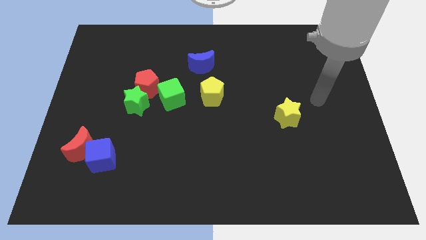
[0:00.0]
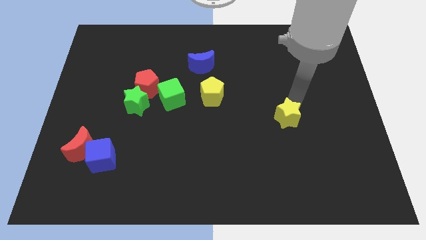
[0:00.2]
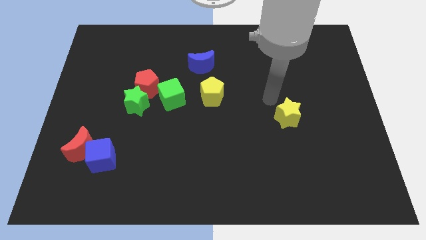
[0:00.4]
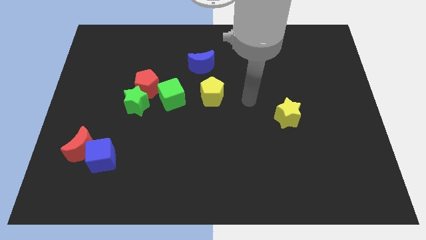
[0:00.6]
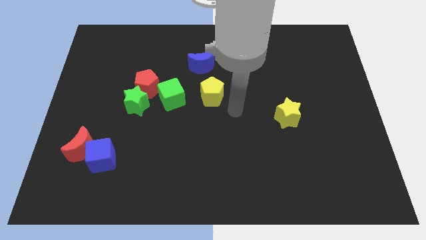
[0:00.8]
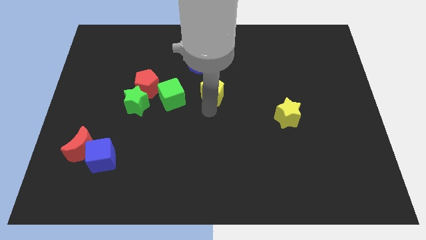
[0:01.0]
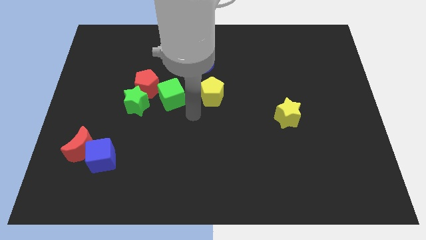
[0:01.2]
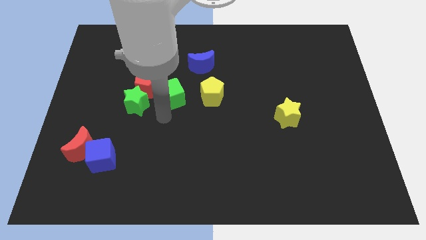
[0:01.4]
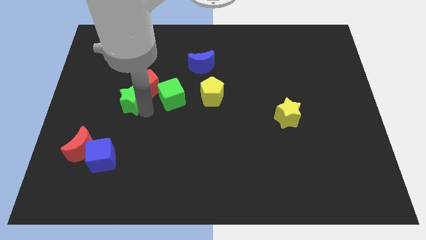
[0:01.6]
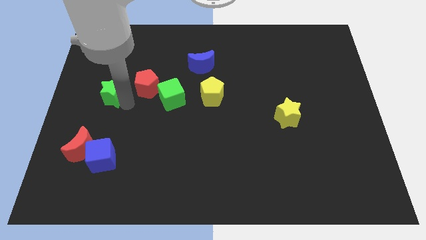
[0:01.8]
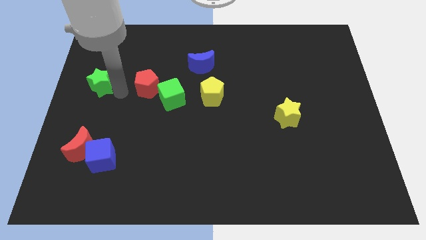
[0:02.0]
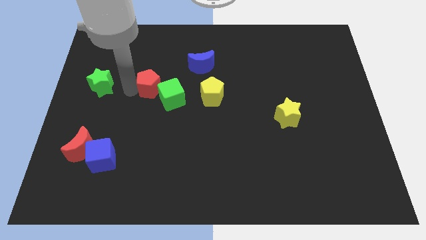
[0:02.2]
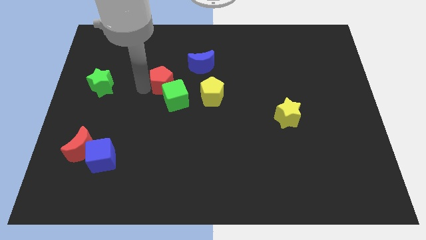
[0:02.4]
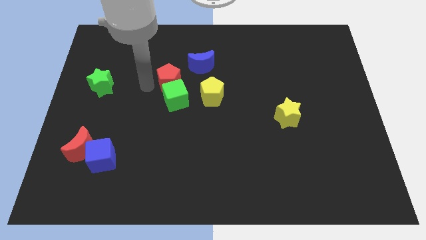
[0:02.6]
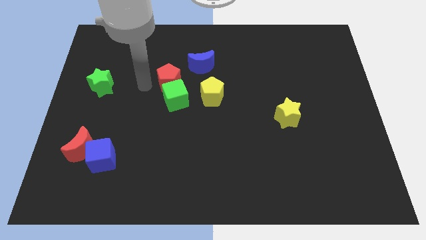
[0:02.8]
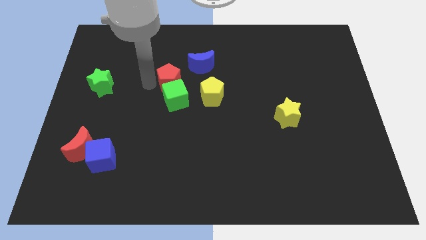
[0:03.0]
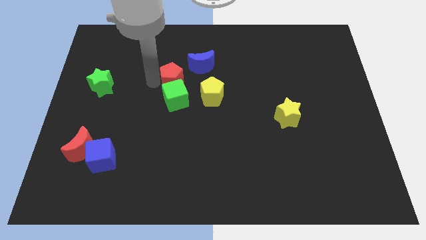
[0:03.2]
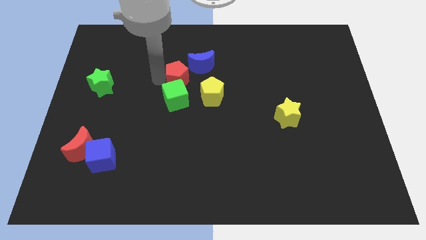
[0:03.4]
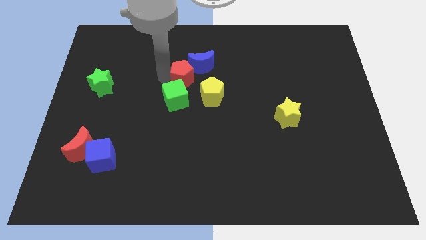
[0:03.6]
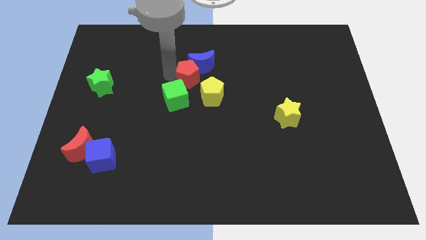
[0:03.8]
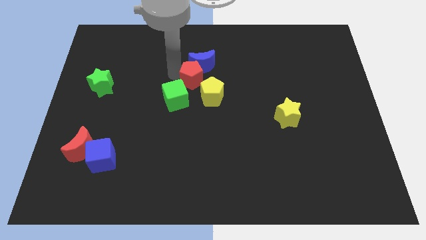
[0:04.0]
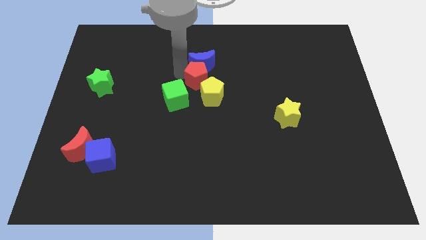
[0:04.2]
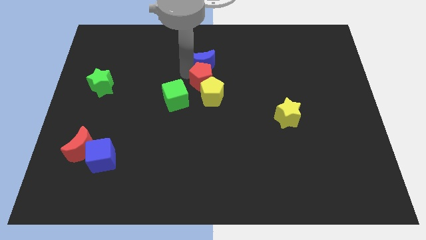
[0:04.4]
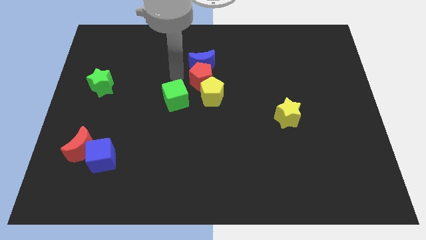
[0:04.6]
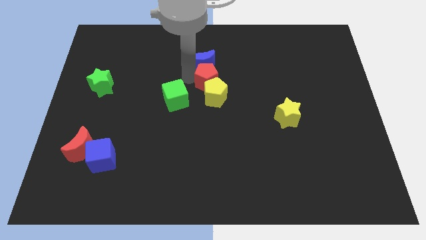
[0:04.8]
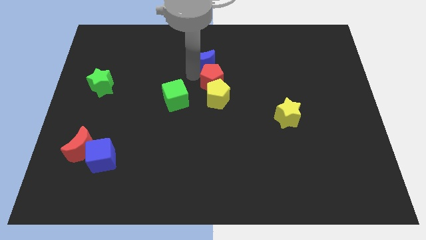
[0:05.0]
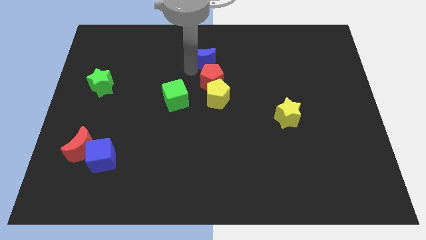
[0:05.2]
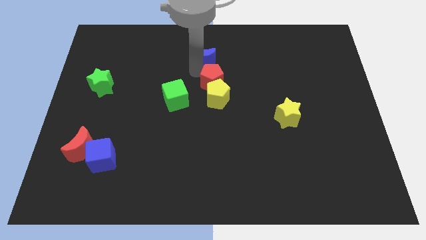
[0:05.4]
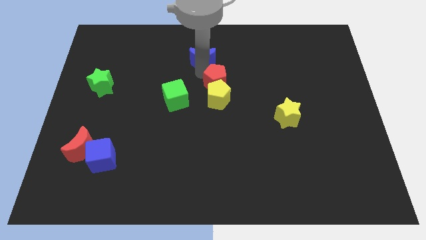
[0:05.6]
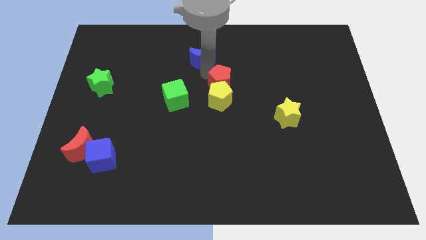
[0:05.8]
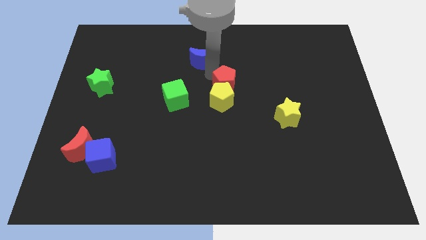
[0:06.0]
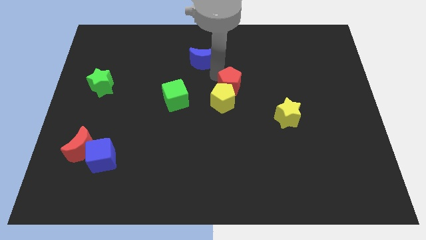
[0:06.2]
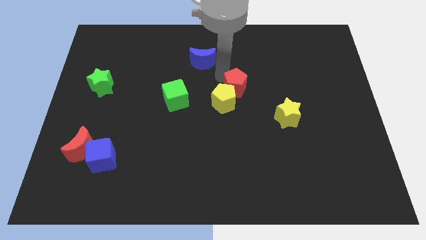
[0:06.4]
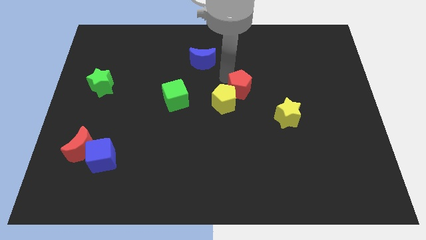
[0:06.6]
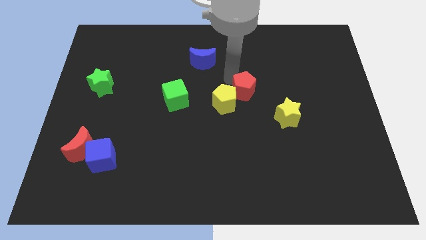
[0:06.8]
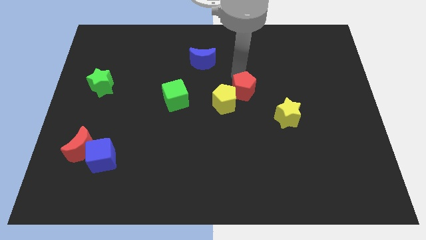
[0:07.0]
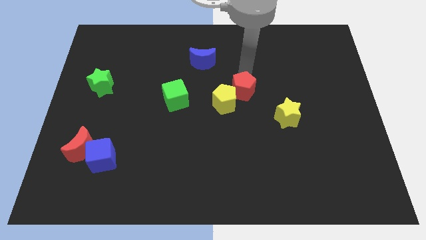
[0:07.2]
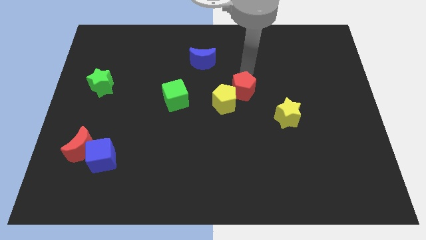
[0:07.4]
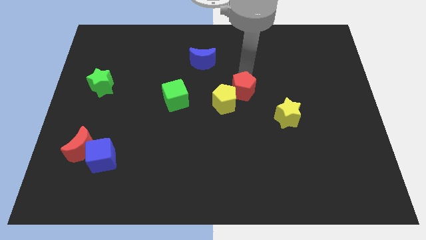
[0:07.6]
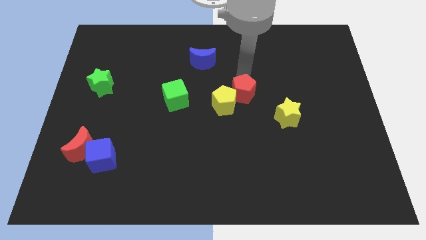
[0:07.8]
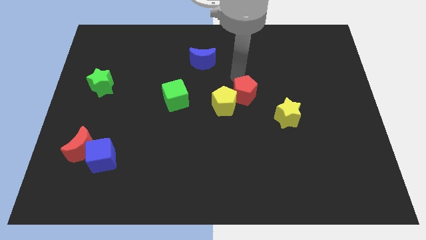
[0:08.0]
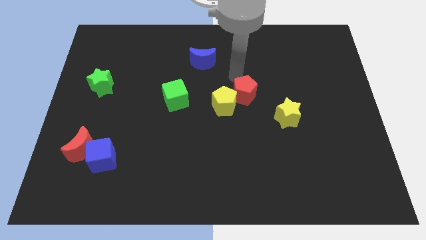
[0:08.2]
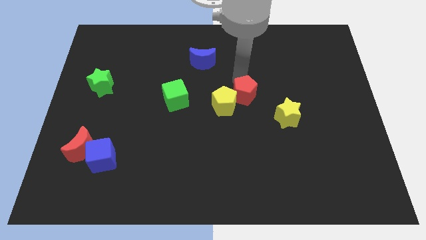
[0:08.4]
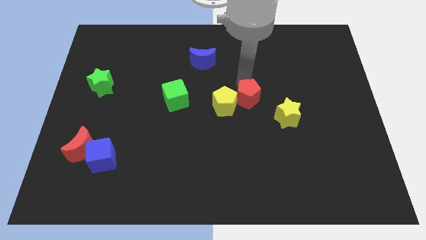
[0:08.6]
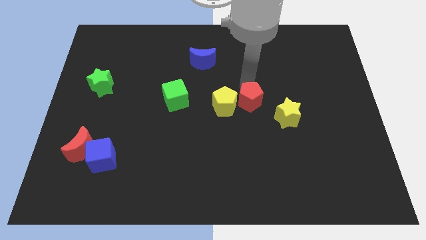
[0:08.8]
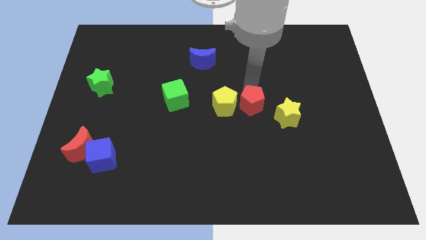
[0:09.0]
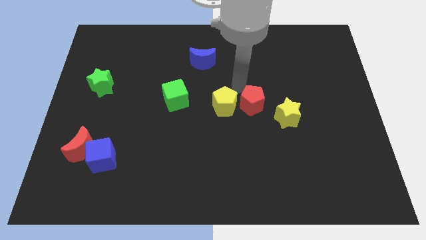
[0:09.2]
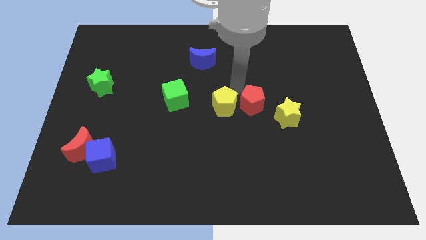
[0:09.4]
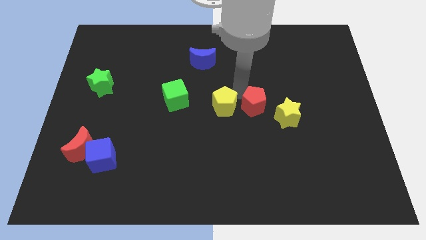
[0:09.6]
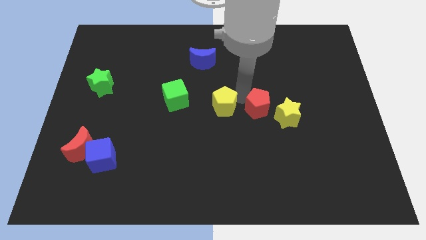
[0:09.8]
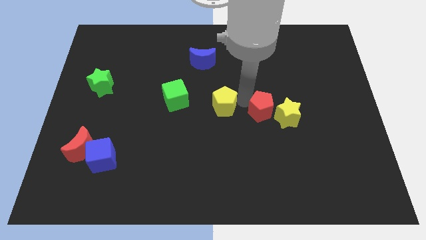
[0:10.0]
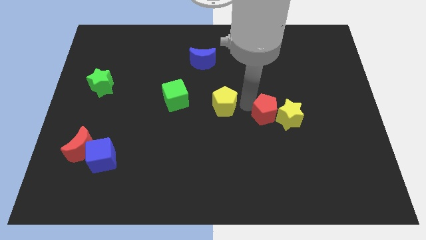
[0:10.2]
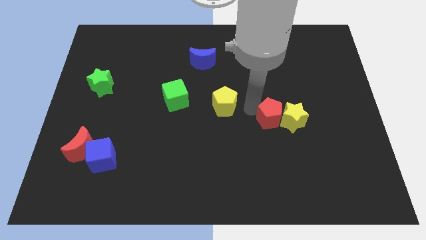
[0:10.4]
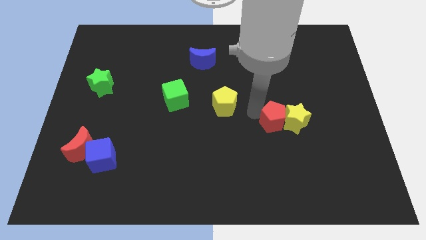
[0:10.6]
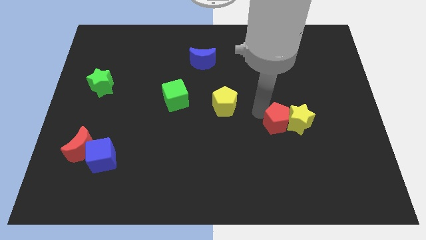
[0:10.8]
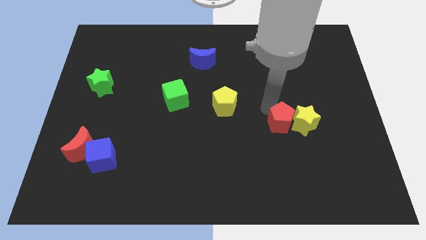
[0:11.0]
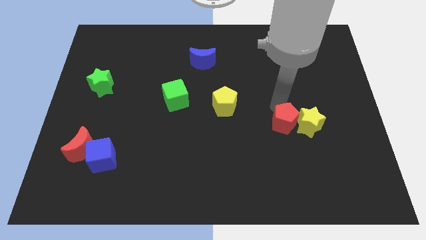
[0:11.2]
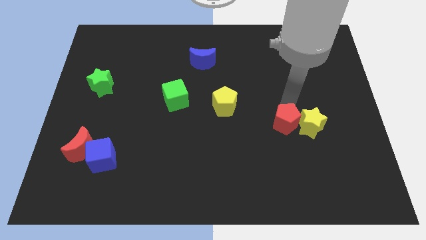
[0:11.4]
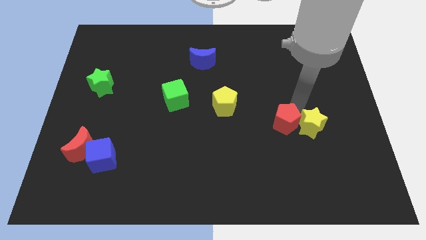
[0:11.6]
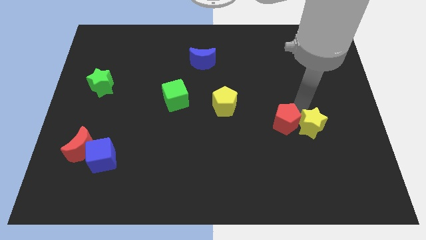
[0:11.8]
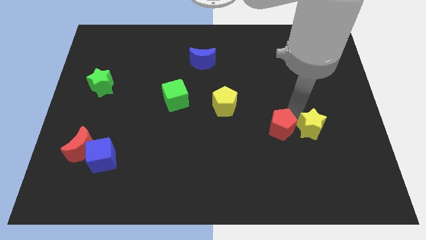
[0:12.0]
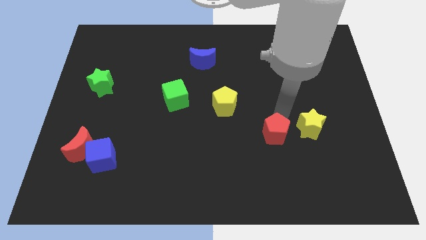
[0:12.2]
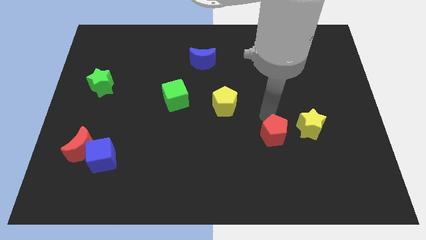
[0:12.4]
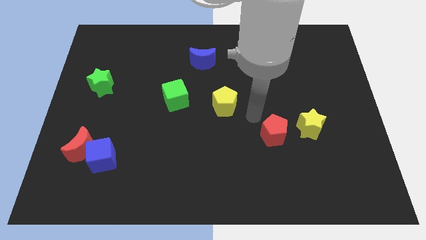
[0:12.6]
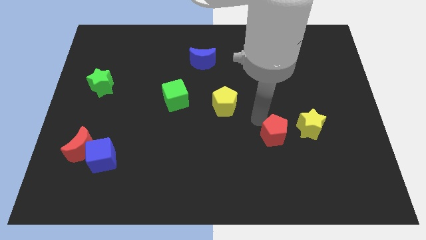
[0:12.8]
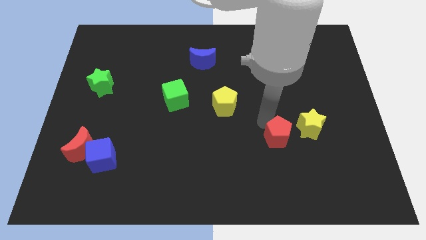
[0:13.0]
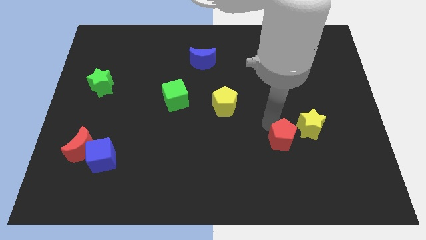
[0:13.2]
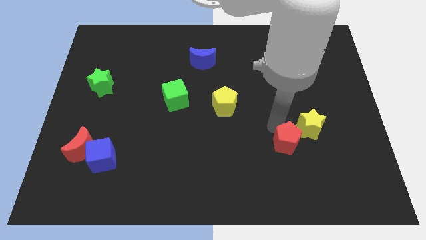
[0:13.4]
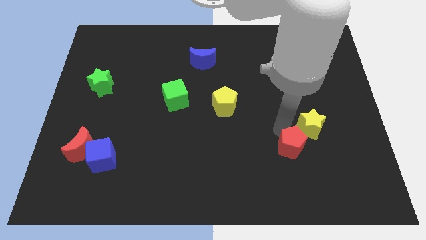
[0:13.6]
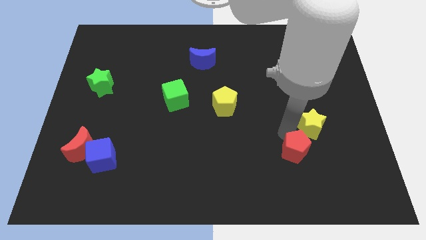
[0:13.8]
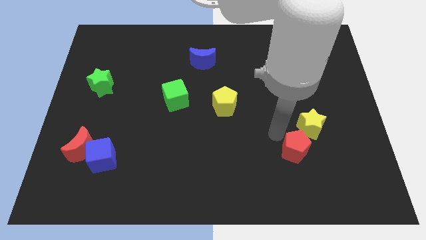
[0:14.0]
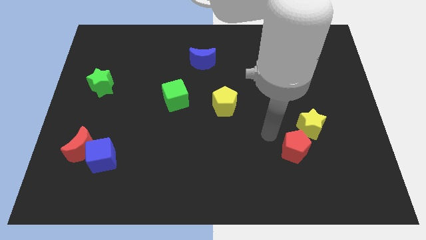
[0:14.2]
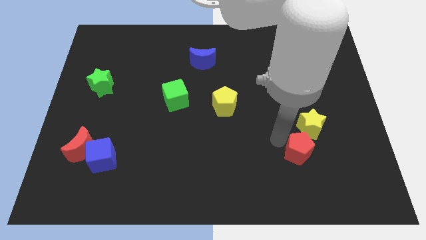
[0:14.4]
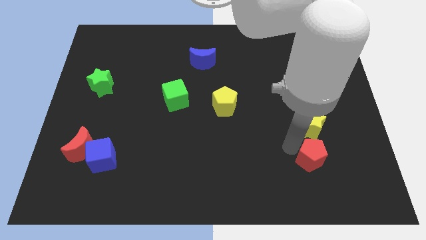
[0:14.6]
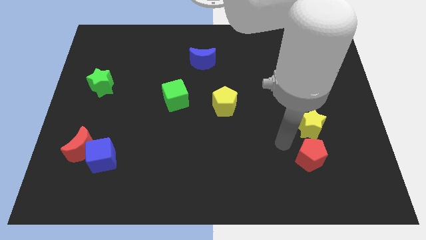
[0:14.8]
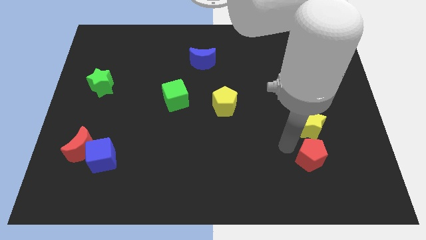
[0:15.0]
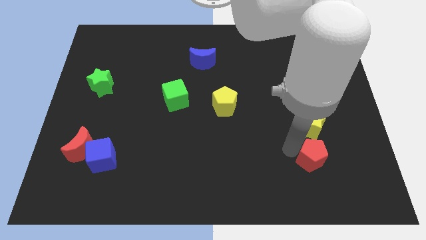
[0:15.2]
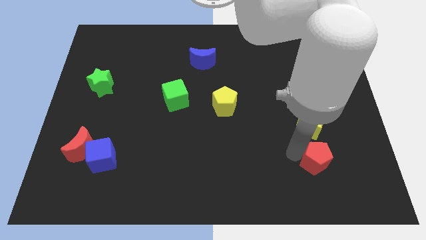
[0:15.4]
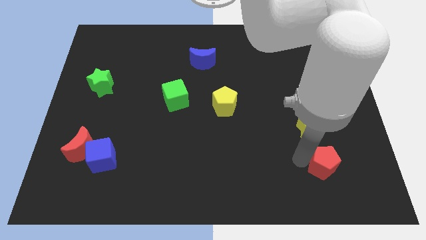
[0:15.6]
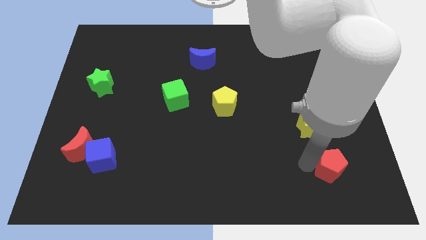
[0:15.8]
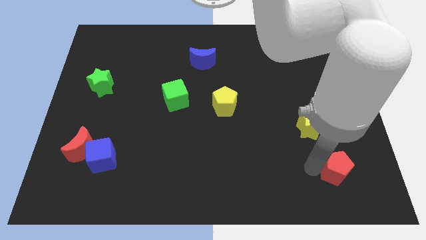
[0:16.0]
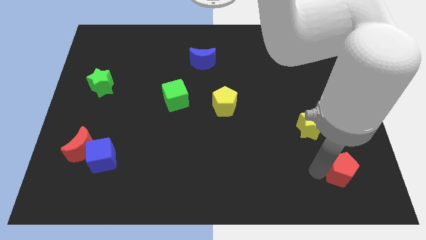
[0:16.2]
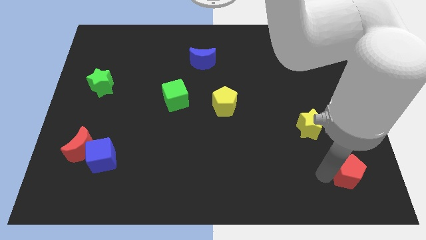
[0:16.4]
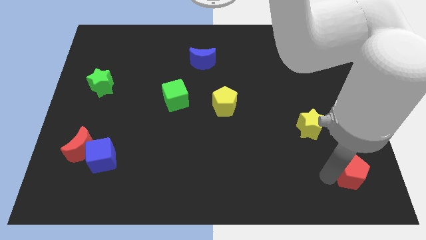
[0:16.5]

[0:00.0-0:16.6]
slide the red pentagon to the bottom right corner
